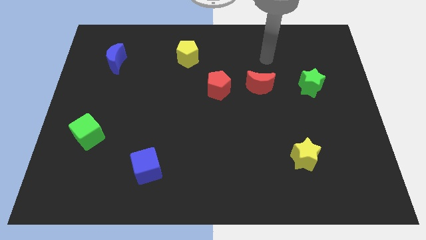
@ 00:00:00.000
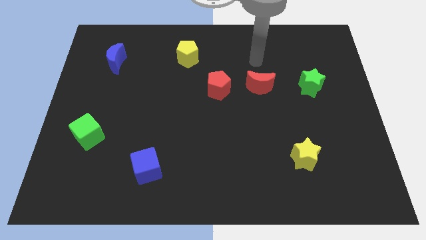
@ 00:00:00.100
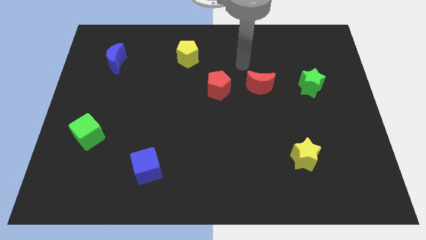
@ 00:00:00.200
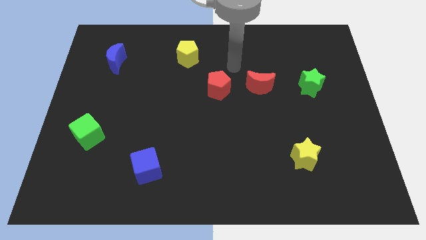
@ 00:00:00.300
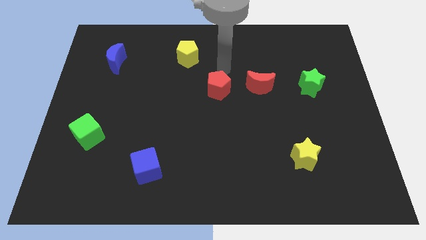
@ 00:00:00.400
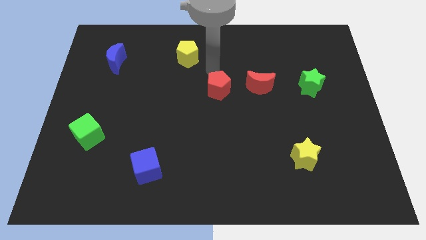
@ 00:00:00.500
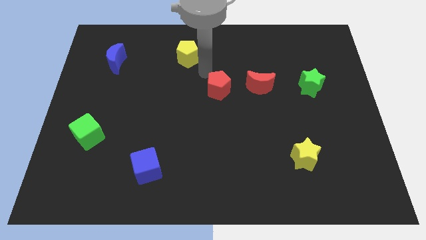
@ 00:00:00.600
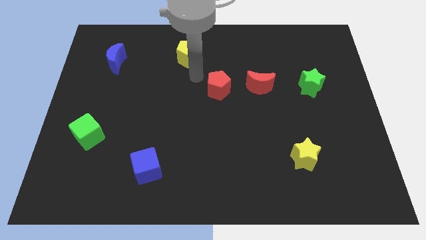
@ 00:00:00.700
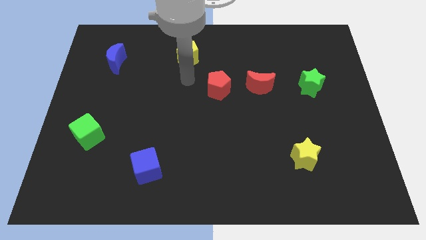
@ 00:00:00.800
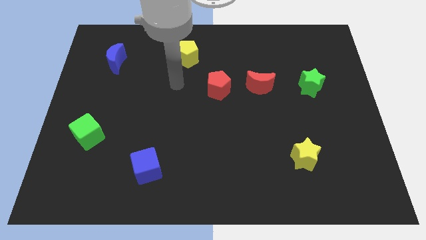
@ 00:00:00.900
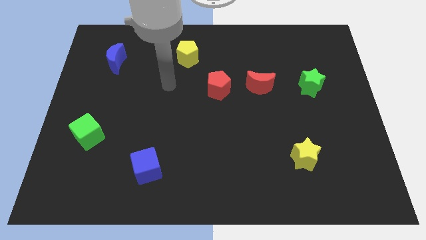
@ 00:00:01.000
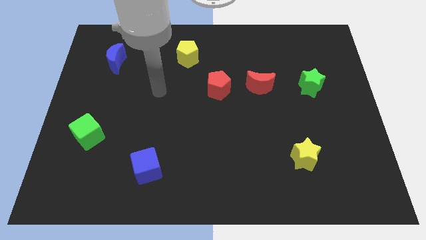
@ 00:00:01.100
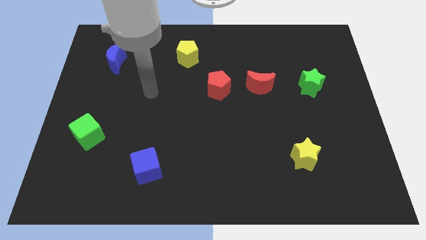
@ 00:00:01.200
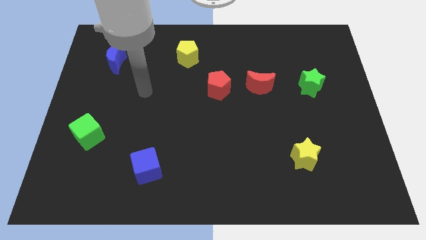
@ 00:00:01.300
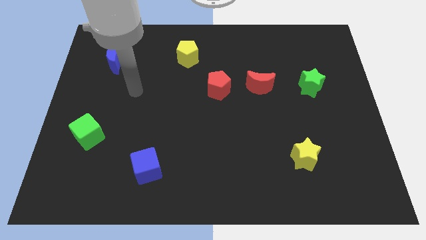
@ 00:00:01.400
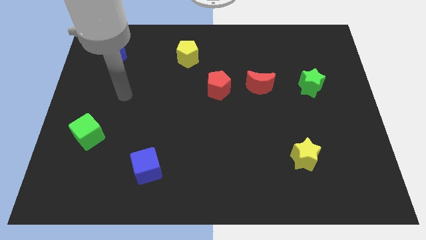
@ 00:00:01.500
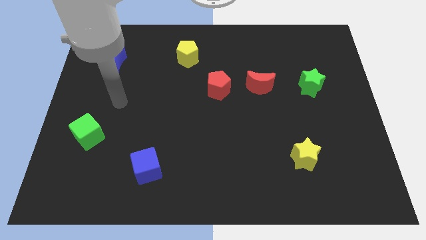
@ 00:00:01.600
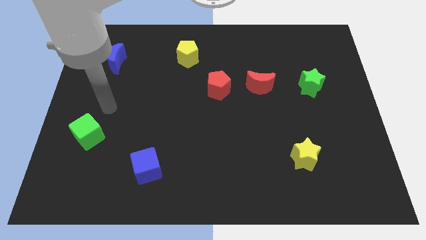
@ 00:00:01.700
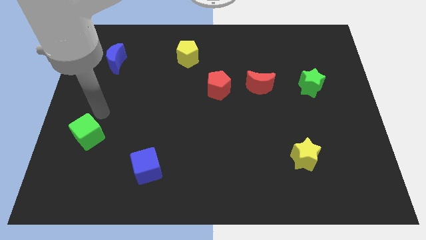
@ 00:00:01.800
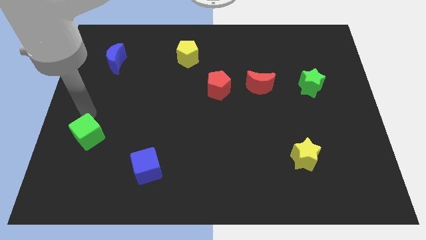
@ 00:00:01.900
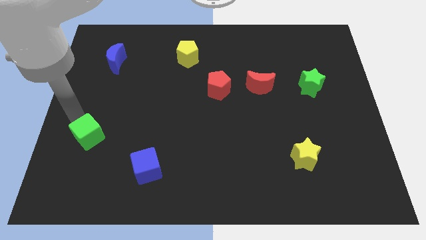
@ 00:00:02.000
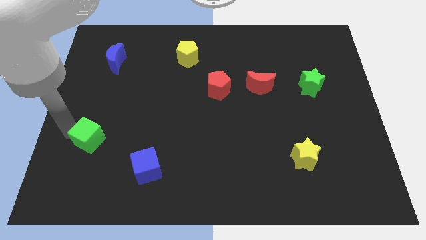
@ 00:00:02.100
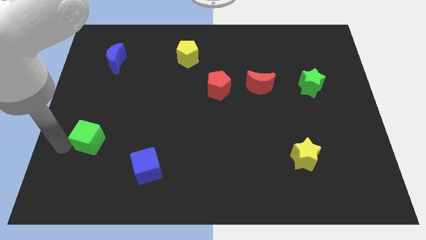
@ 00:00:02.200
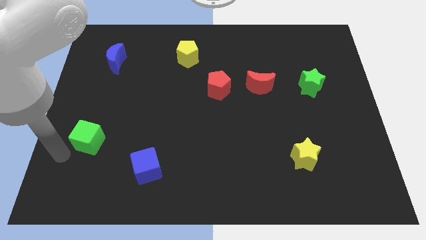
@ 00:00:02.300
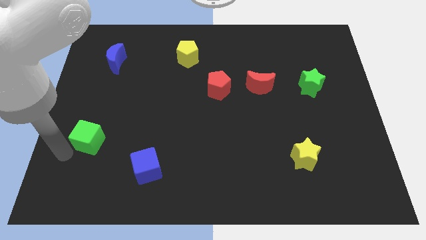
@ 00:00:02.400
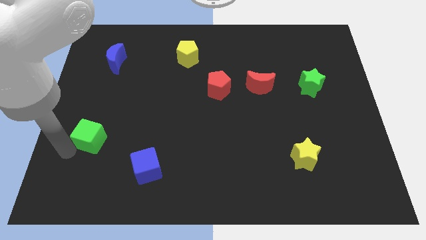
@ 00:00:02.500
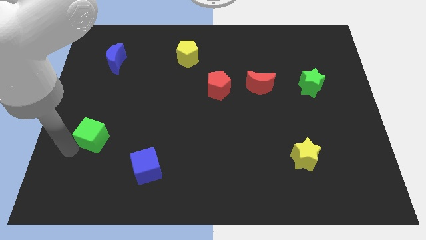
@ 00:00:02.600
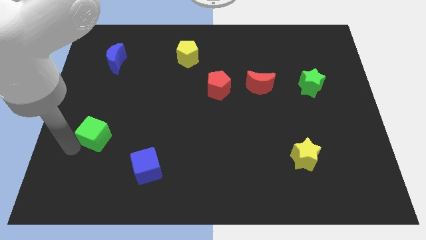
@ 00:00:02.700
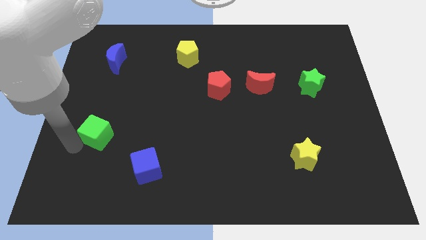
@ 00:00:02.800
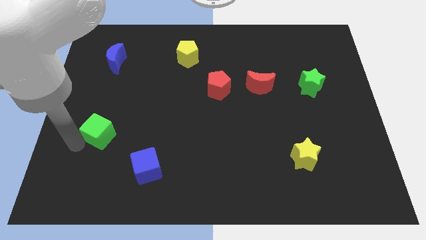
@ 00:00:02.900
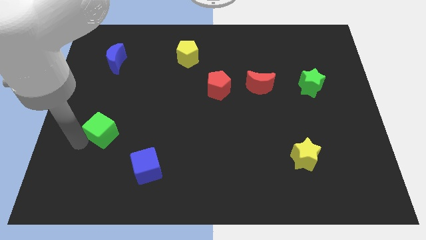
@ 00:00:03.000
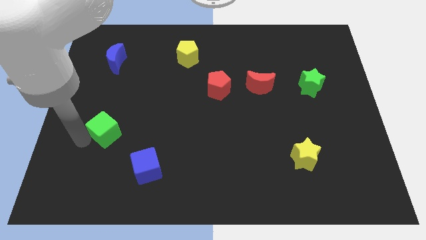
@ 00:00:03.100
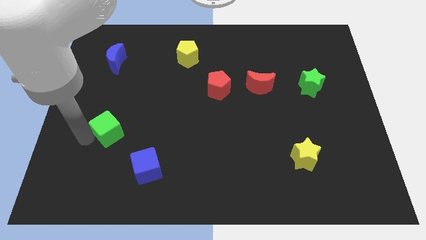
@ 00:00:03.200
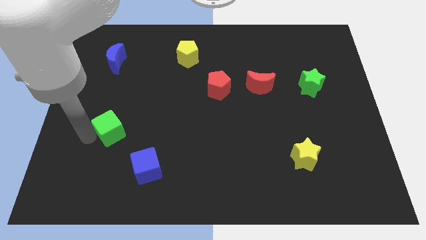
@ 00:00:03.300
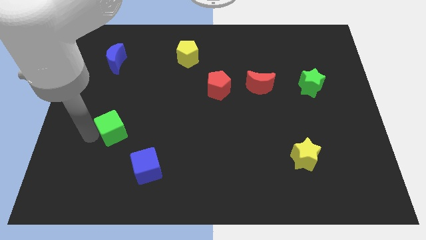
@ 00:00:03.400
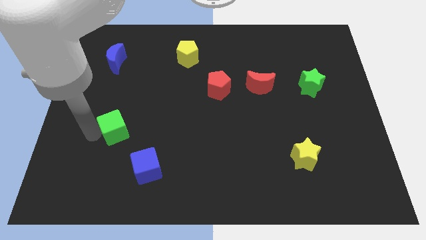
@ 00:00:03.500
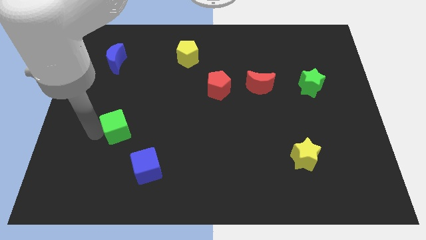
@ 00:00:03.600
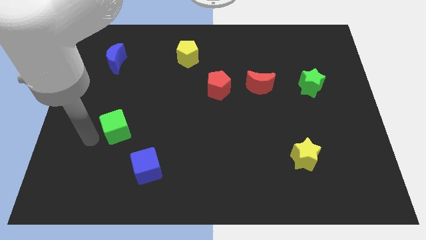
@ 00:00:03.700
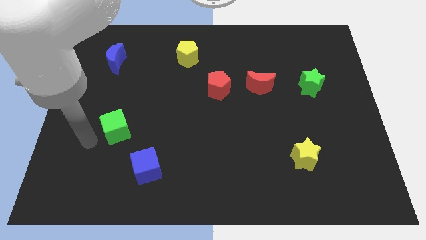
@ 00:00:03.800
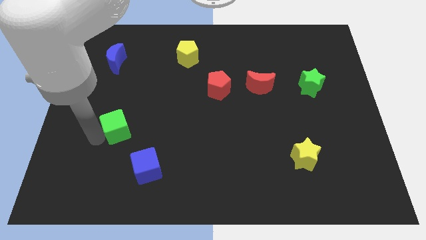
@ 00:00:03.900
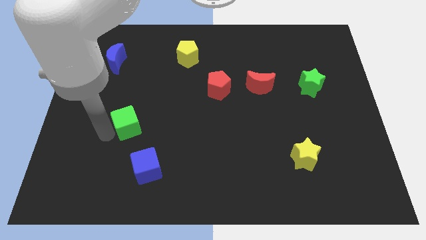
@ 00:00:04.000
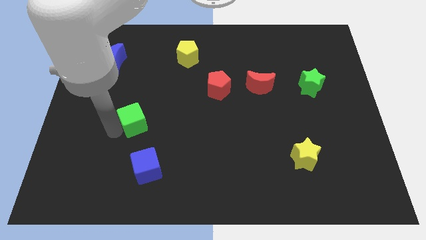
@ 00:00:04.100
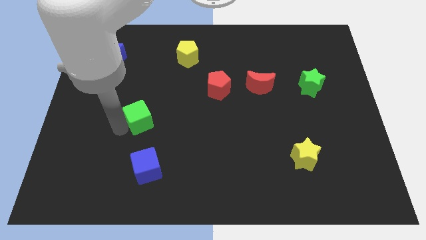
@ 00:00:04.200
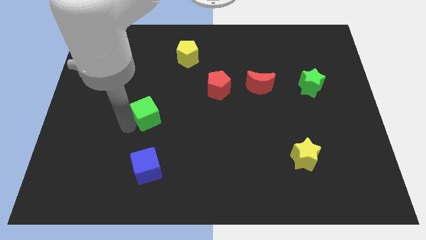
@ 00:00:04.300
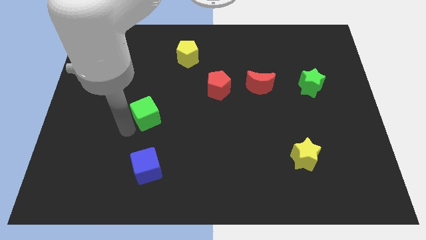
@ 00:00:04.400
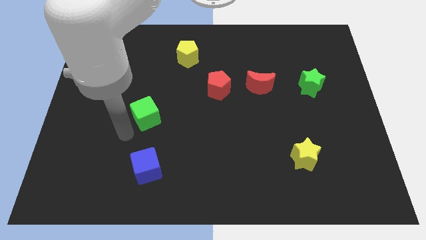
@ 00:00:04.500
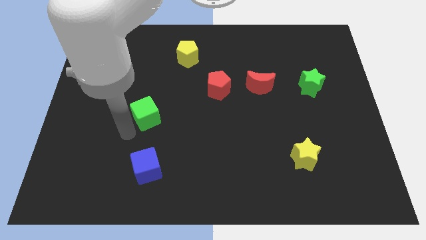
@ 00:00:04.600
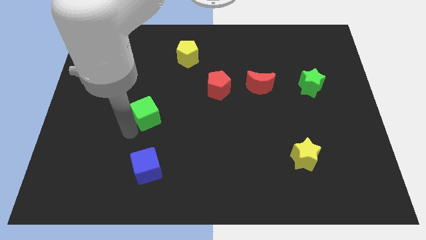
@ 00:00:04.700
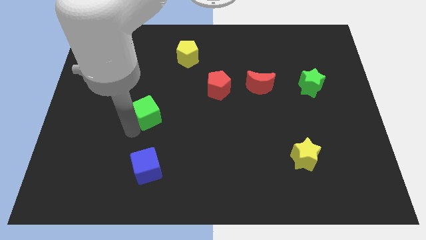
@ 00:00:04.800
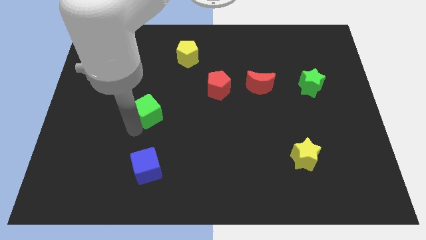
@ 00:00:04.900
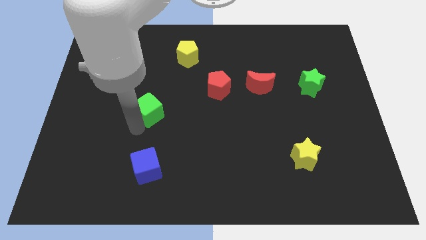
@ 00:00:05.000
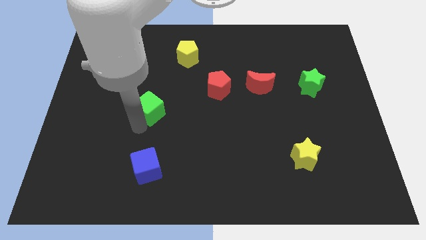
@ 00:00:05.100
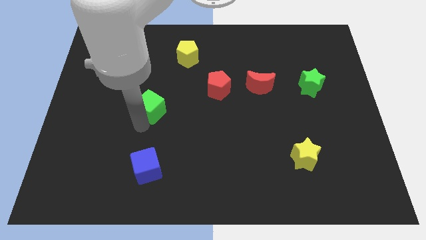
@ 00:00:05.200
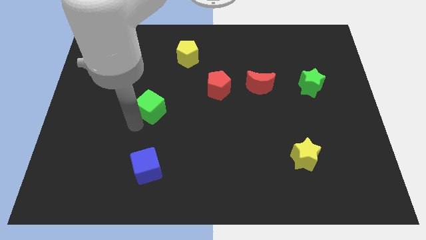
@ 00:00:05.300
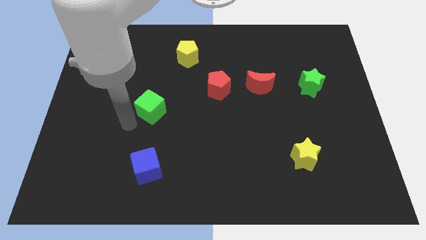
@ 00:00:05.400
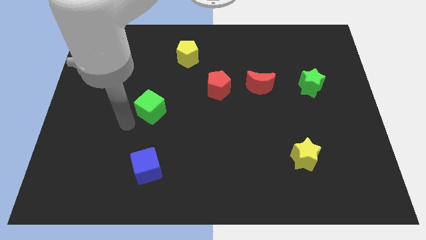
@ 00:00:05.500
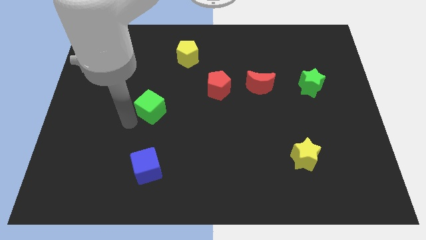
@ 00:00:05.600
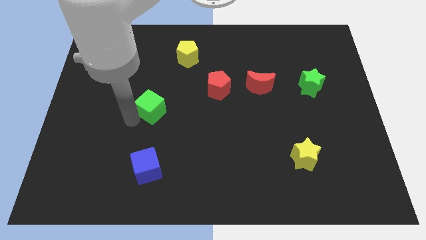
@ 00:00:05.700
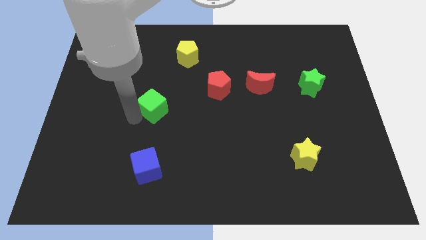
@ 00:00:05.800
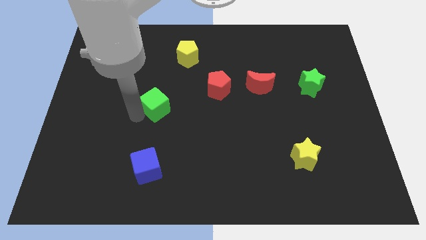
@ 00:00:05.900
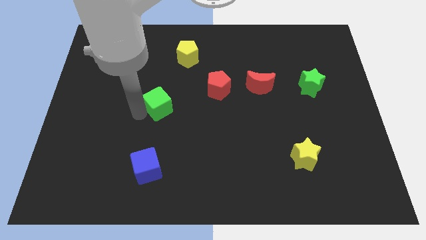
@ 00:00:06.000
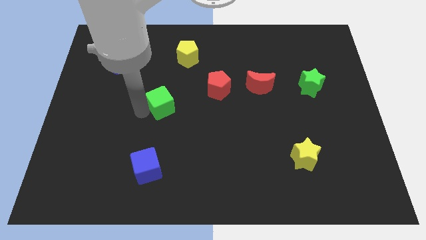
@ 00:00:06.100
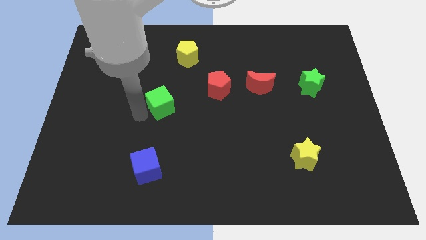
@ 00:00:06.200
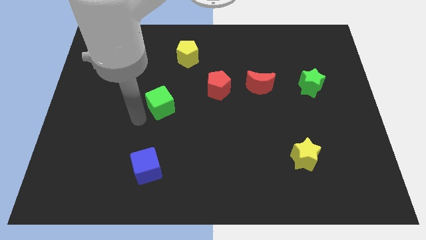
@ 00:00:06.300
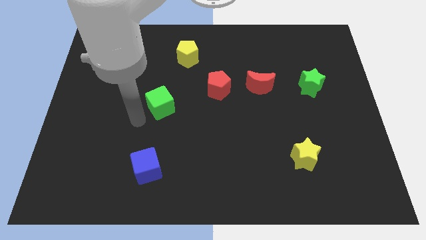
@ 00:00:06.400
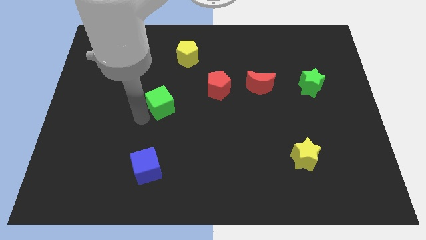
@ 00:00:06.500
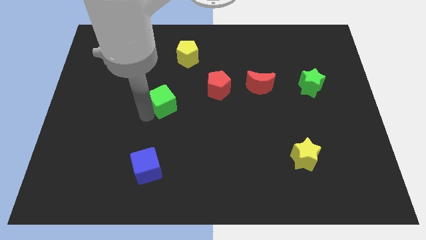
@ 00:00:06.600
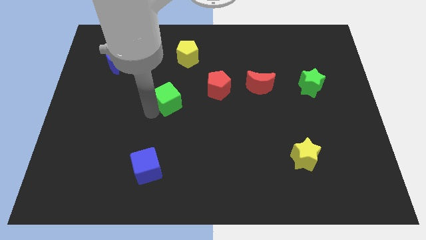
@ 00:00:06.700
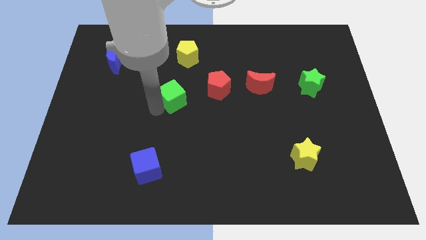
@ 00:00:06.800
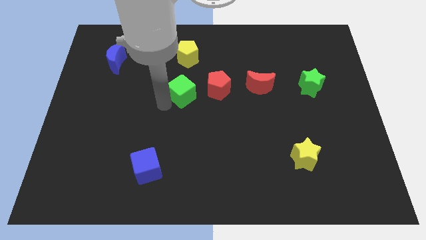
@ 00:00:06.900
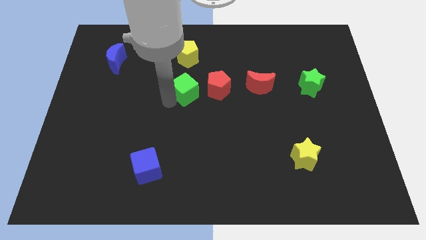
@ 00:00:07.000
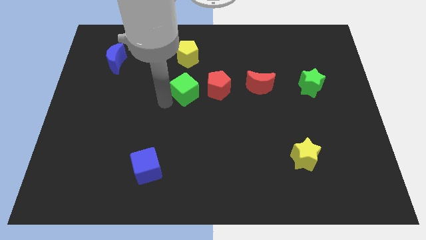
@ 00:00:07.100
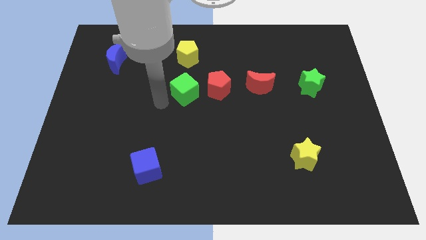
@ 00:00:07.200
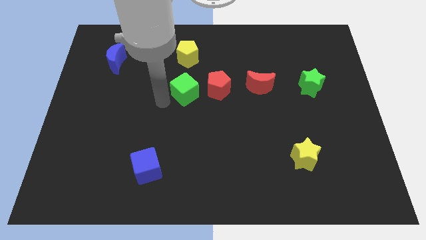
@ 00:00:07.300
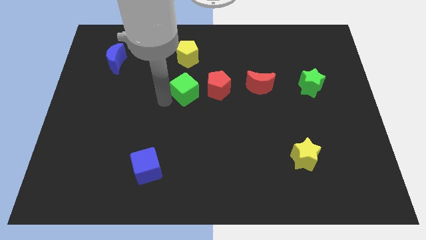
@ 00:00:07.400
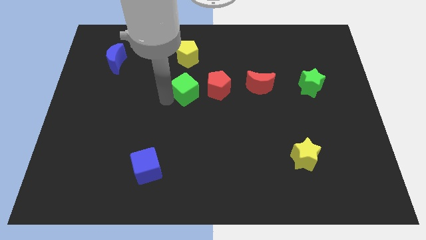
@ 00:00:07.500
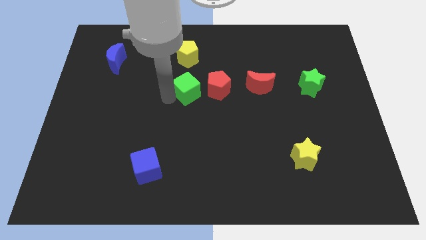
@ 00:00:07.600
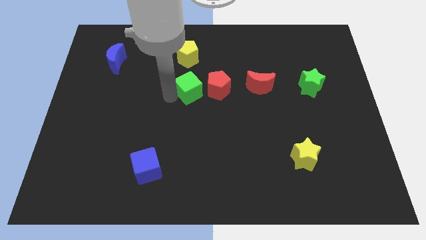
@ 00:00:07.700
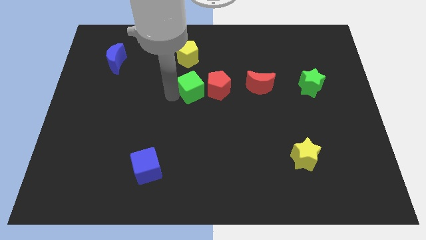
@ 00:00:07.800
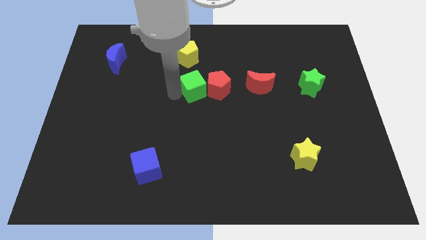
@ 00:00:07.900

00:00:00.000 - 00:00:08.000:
move the green cube to the left of the red moon
